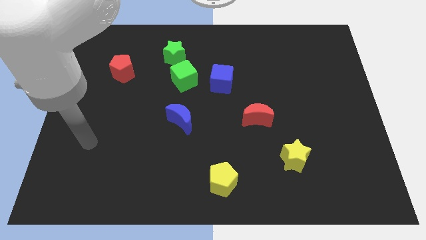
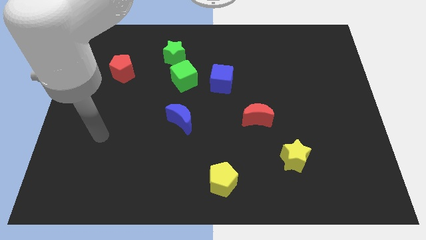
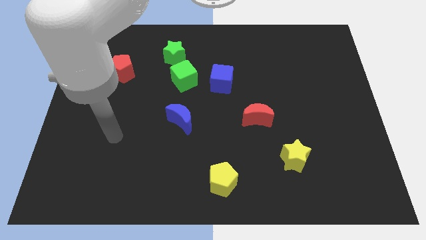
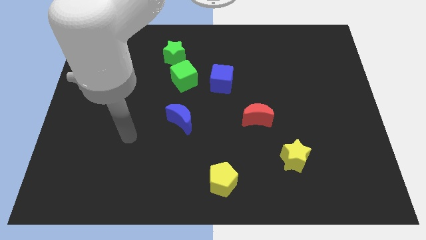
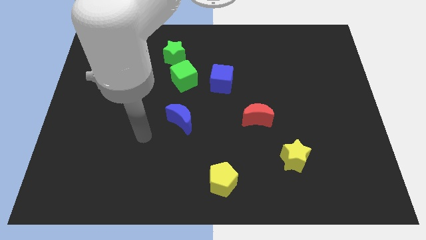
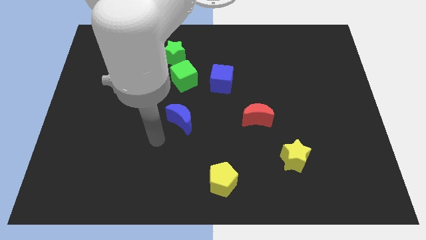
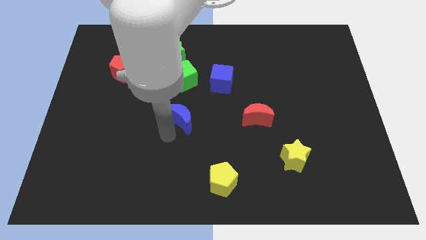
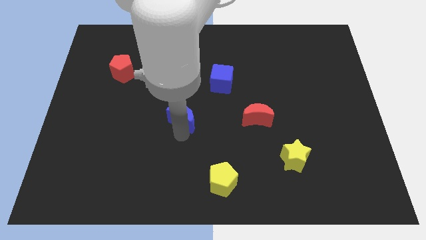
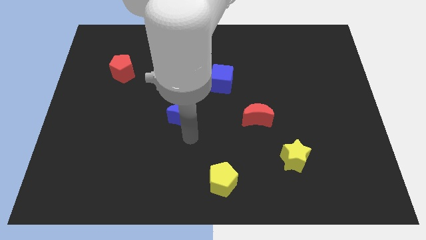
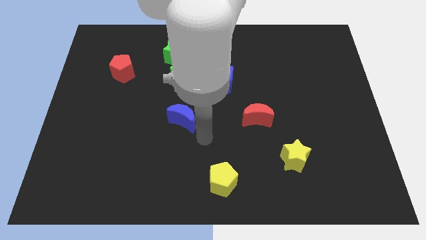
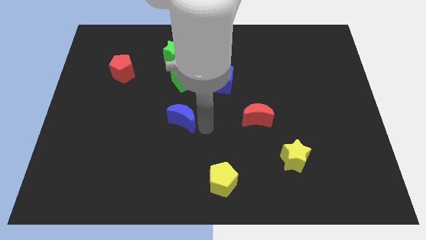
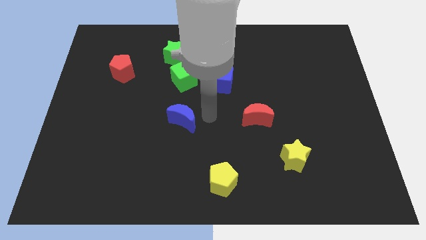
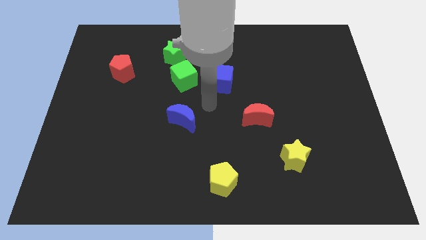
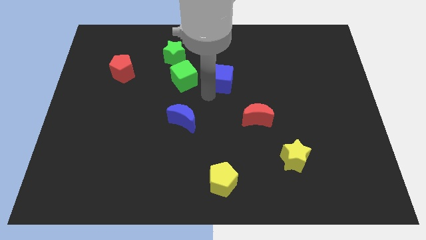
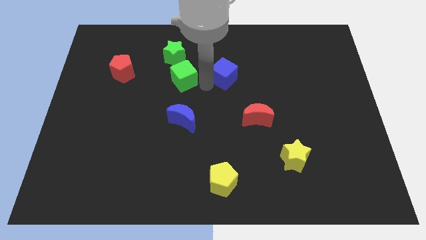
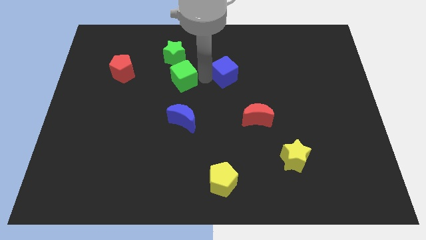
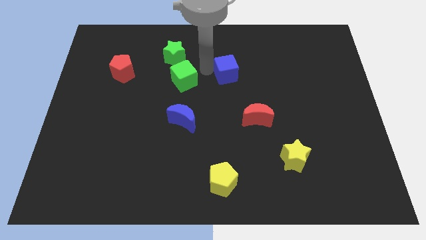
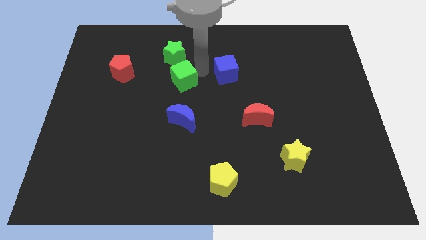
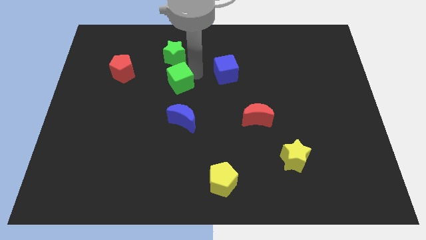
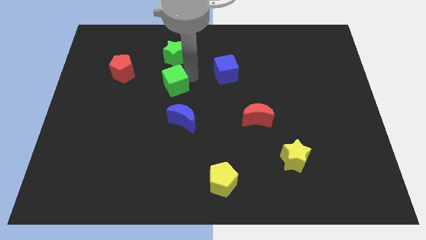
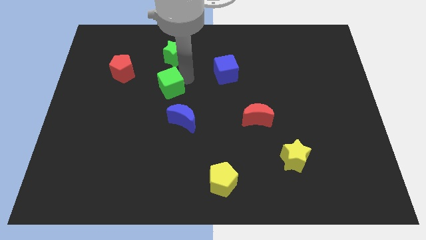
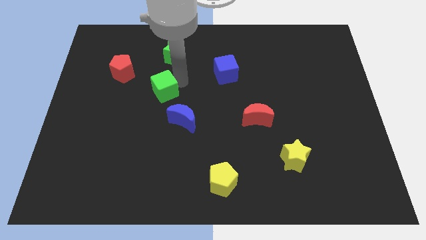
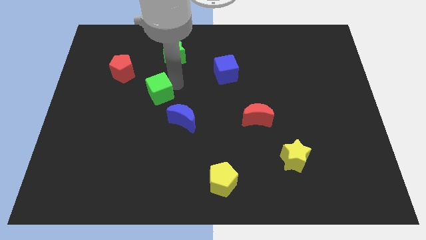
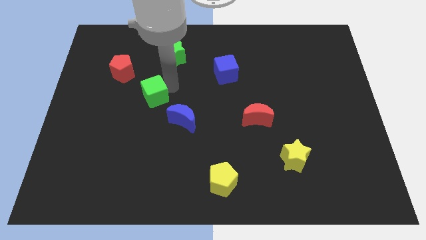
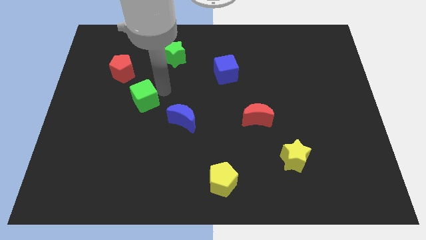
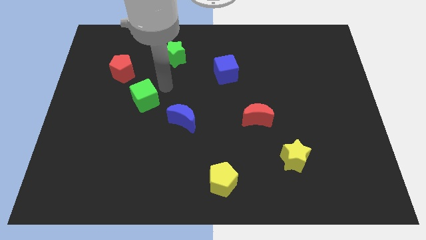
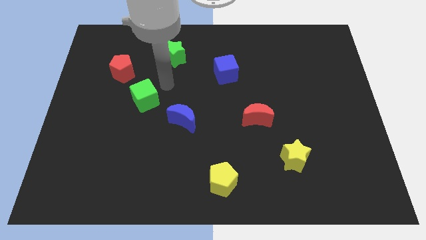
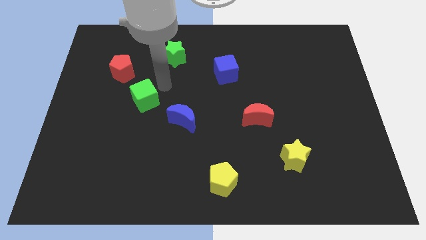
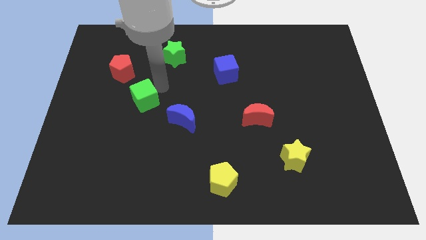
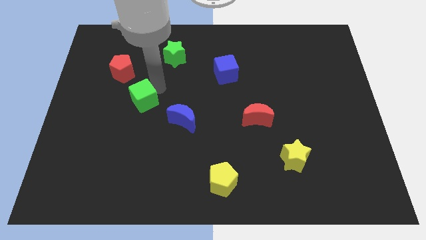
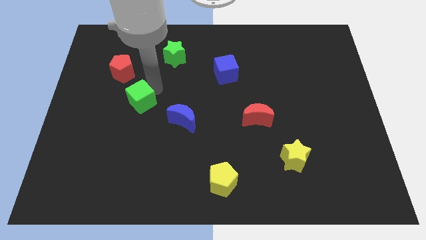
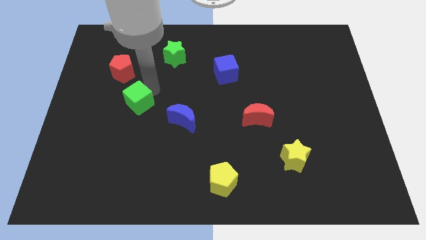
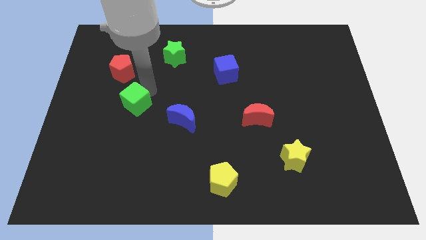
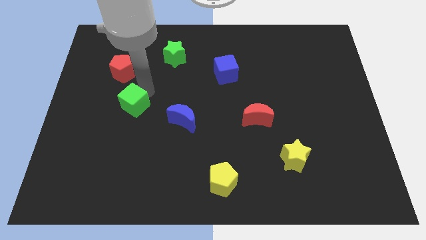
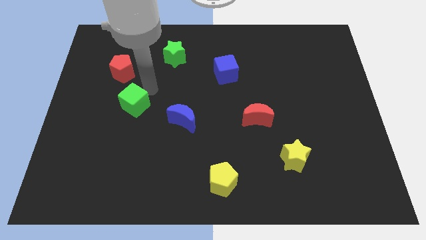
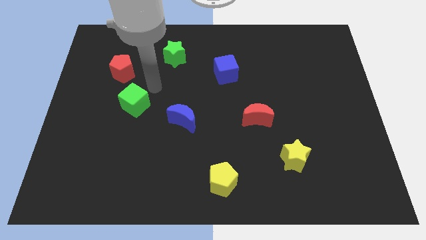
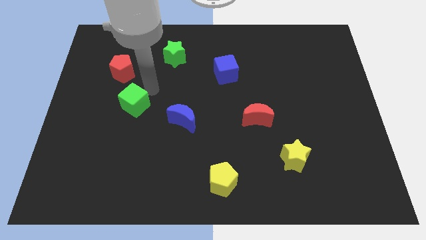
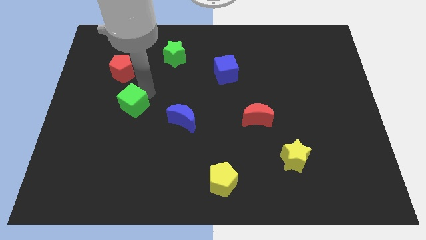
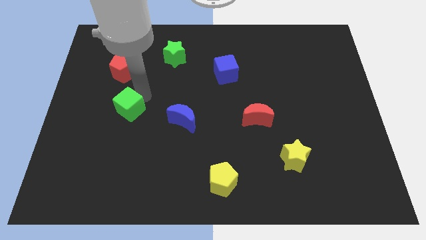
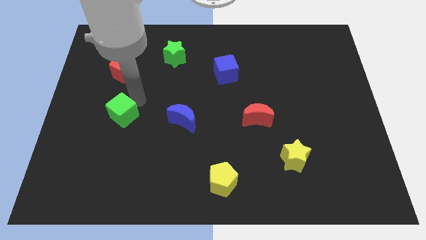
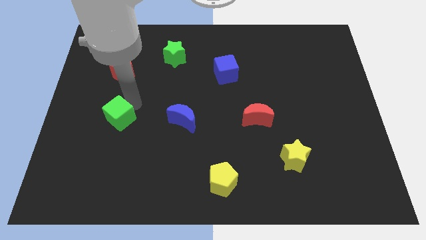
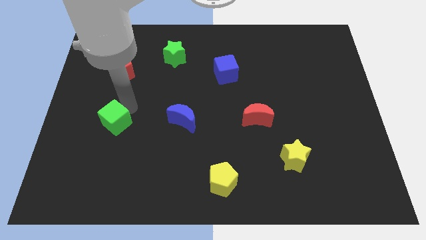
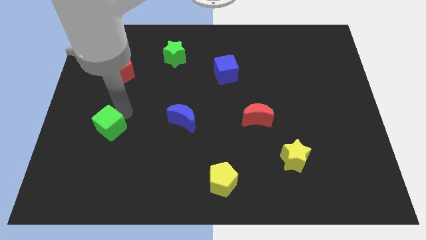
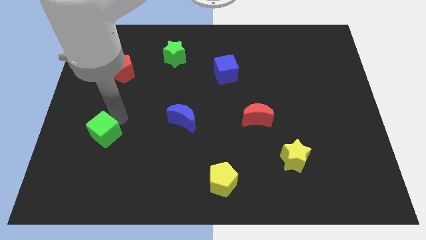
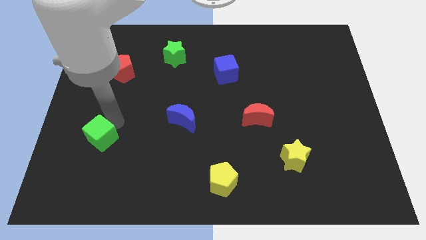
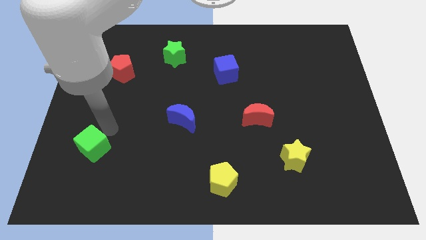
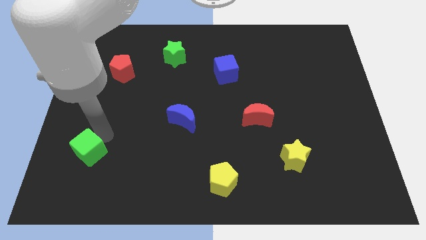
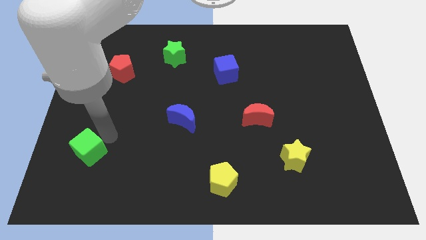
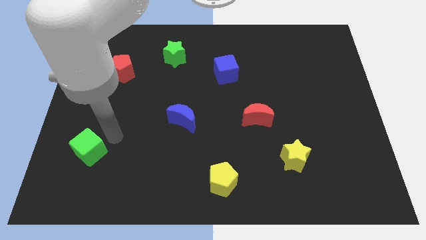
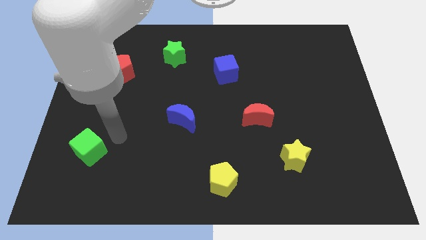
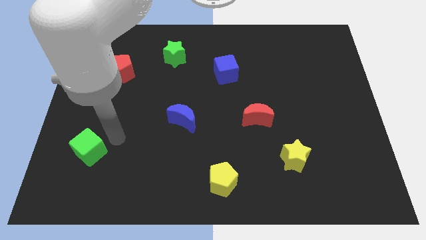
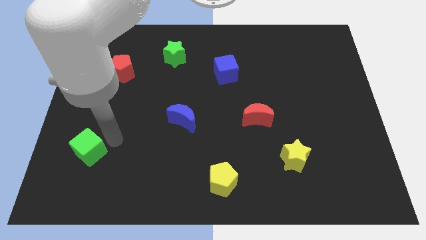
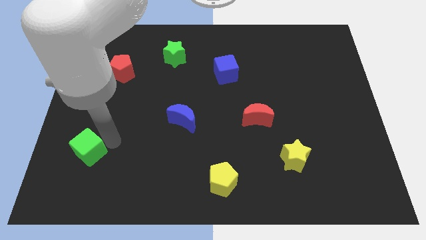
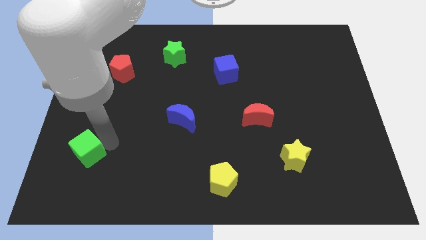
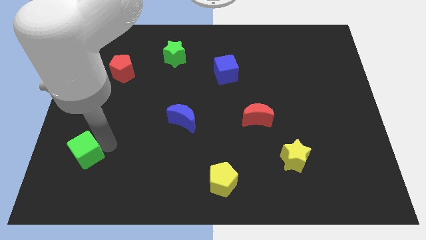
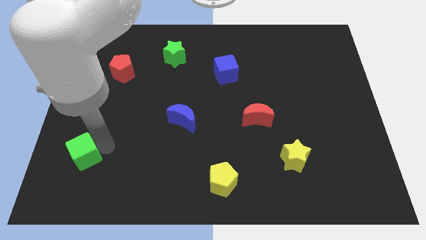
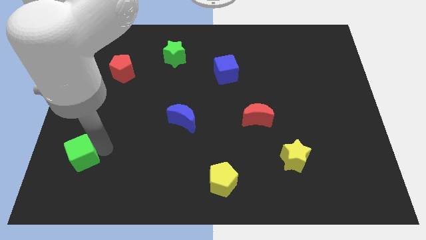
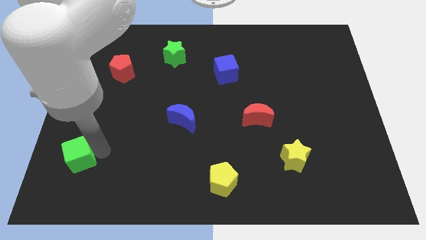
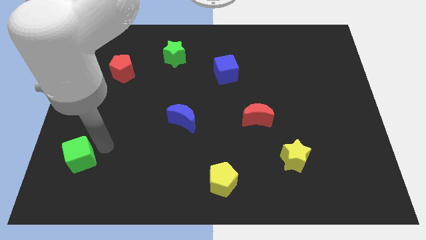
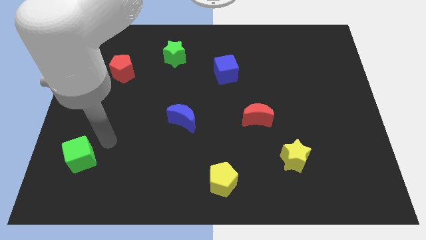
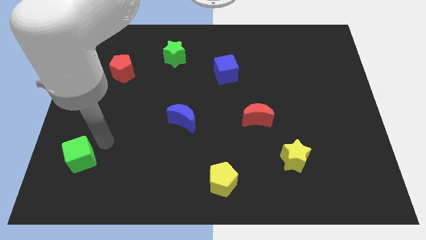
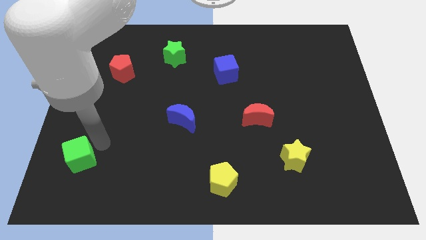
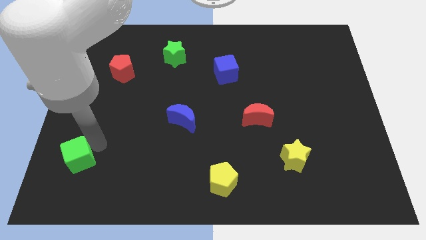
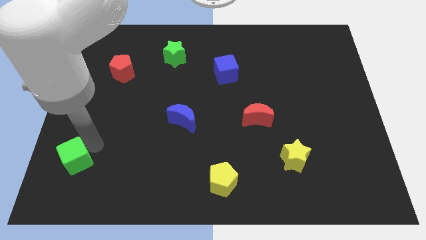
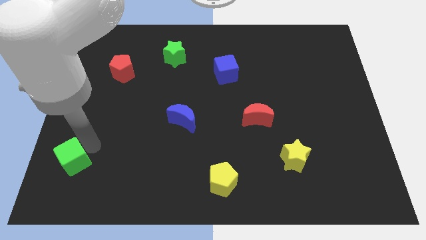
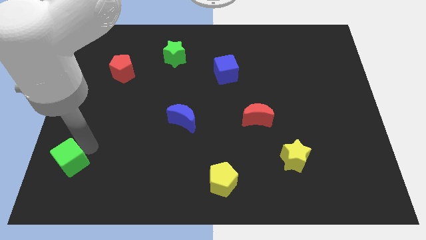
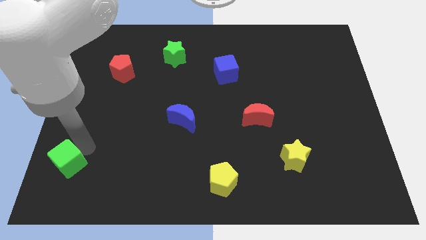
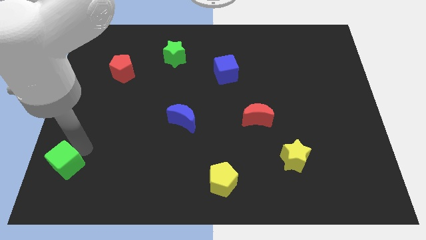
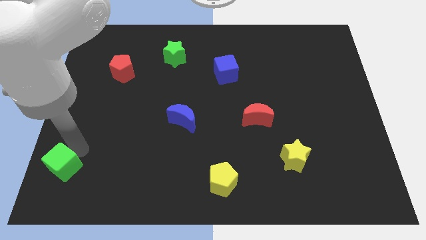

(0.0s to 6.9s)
move the green cube to the lower left corner
